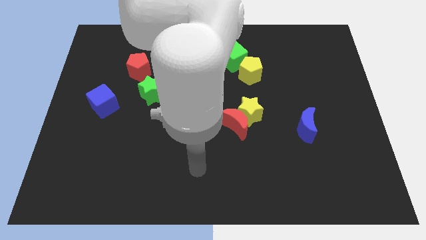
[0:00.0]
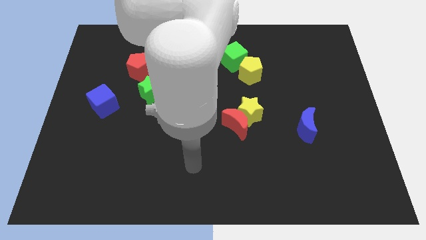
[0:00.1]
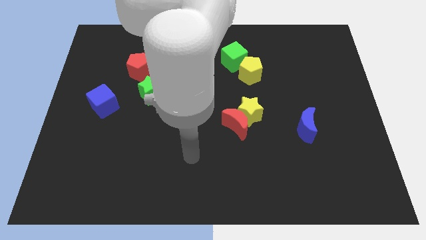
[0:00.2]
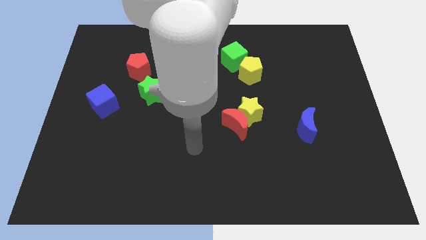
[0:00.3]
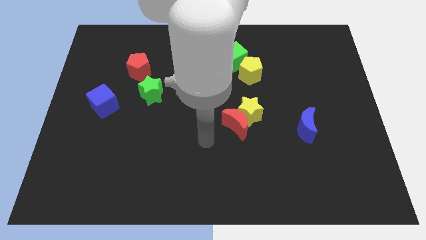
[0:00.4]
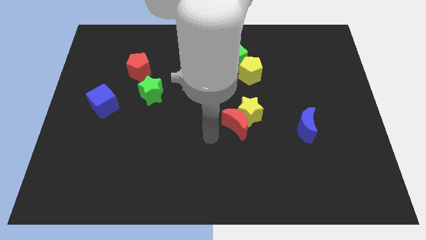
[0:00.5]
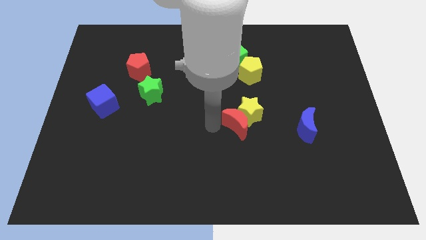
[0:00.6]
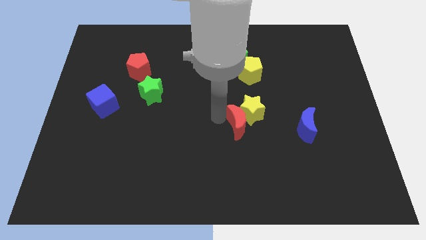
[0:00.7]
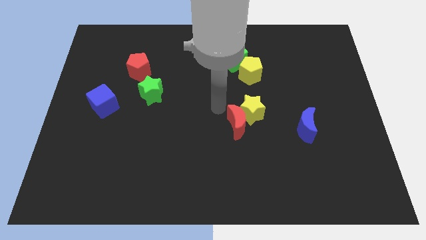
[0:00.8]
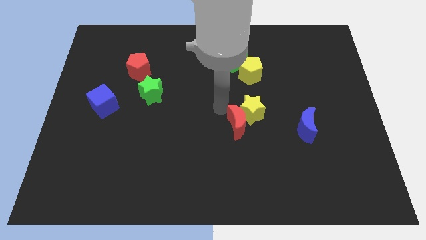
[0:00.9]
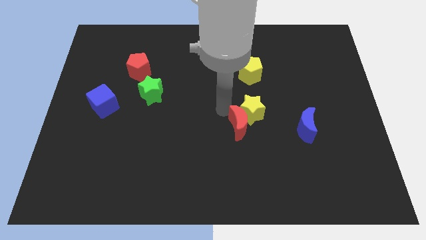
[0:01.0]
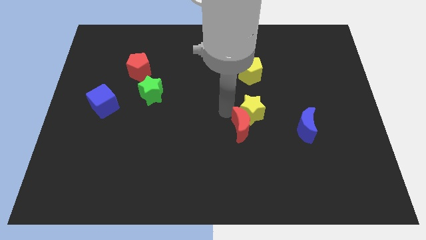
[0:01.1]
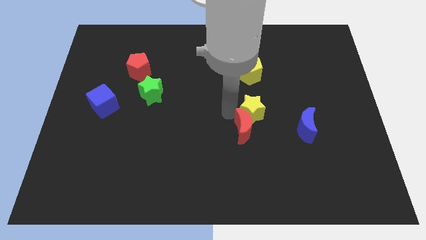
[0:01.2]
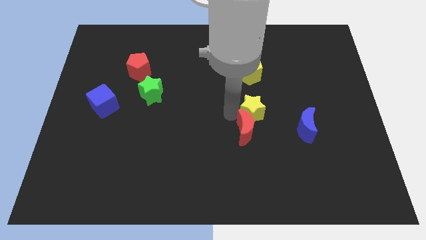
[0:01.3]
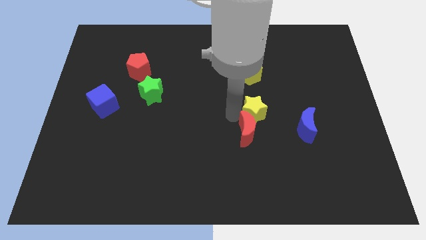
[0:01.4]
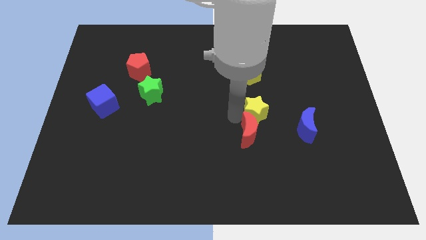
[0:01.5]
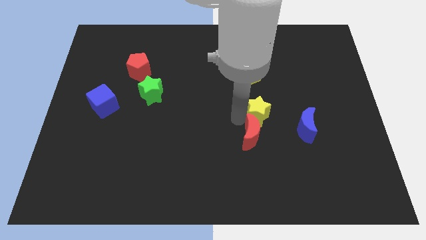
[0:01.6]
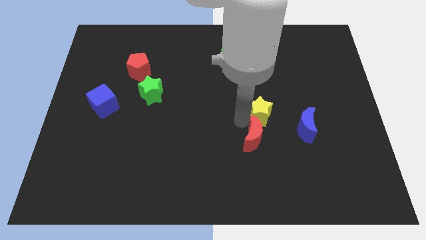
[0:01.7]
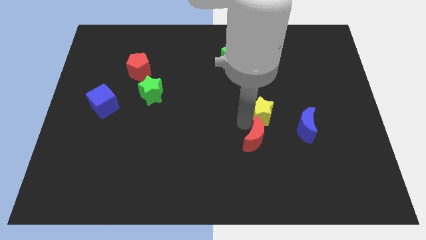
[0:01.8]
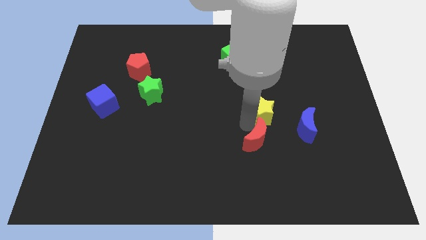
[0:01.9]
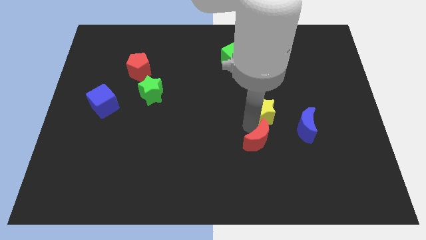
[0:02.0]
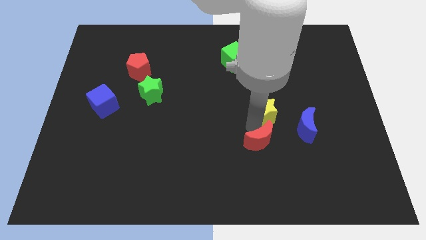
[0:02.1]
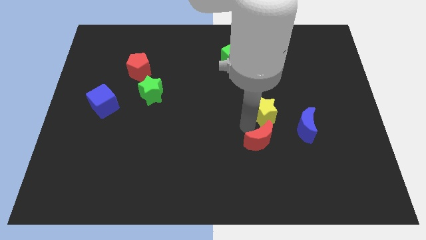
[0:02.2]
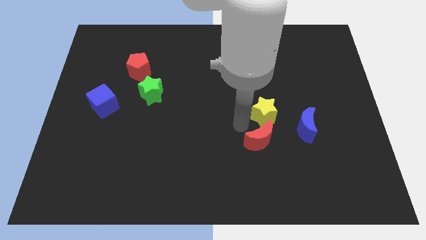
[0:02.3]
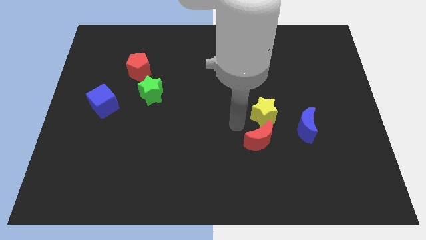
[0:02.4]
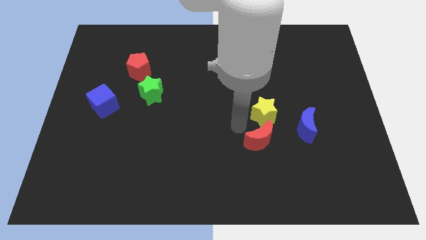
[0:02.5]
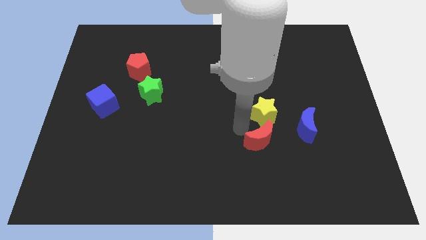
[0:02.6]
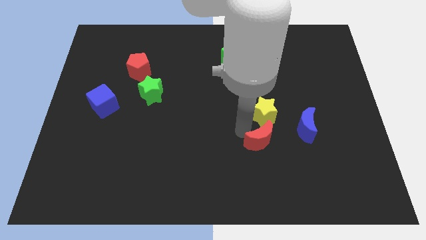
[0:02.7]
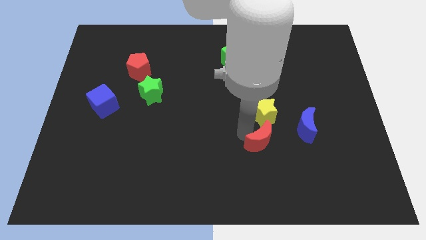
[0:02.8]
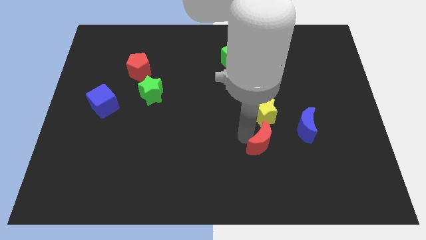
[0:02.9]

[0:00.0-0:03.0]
slide the red moon a little diagonally down and to the right

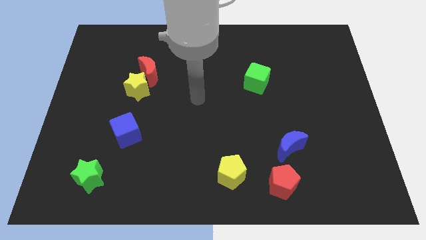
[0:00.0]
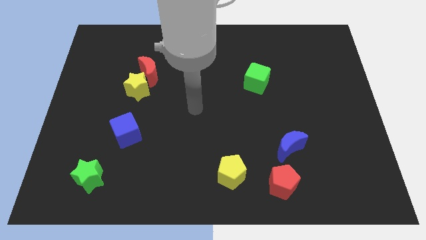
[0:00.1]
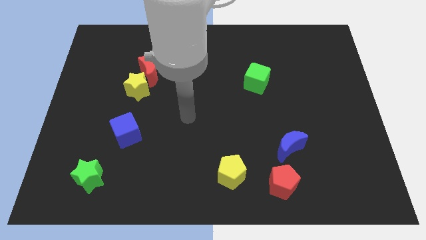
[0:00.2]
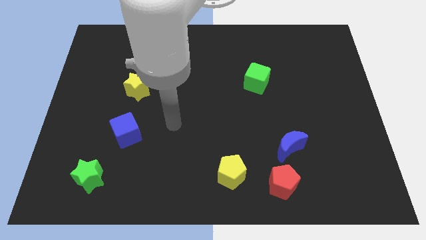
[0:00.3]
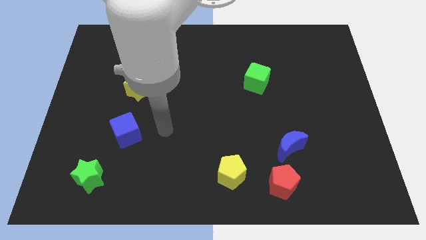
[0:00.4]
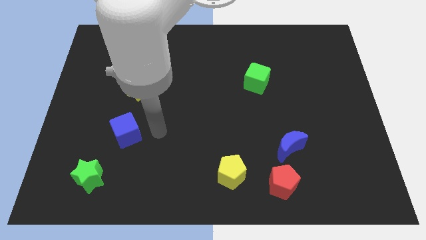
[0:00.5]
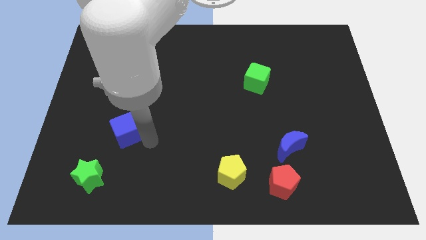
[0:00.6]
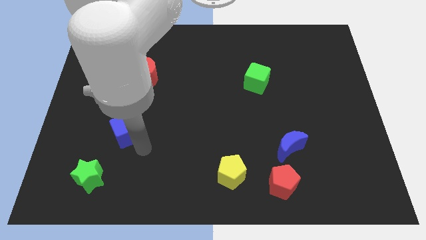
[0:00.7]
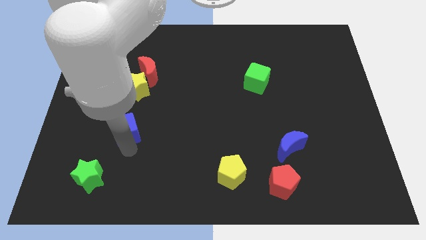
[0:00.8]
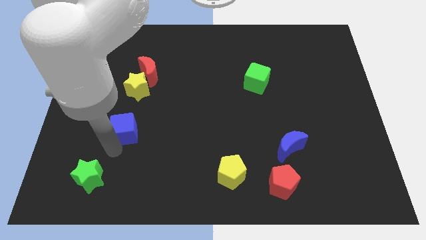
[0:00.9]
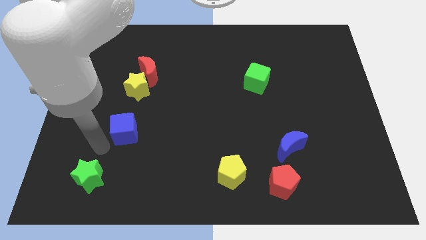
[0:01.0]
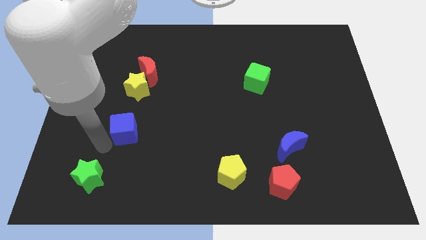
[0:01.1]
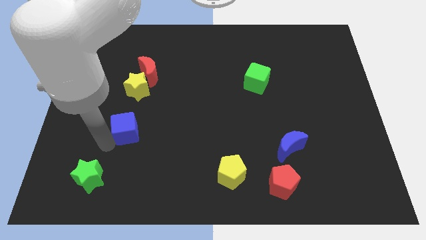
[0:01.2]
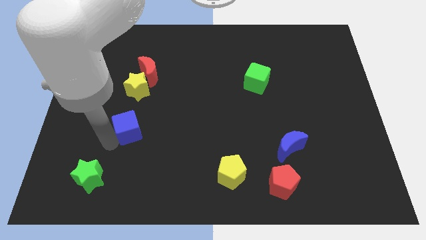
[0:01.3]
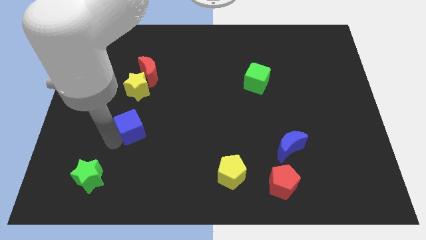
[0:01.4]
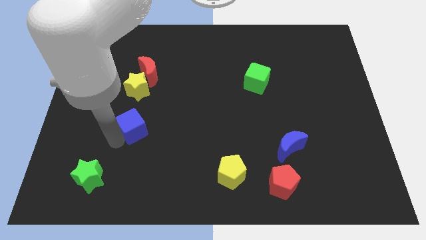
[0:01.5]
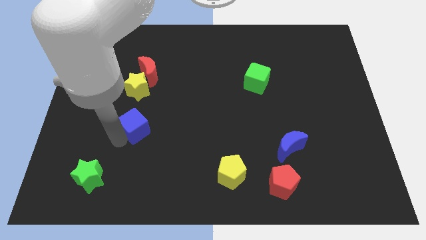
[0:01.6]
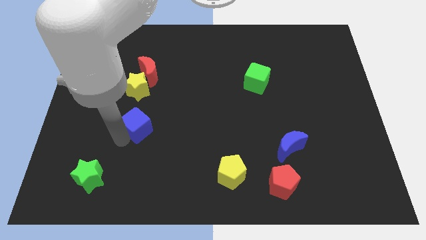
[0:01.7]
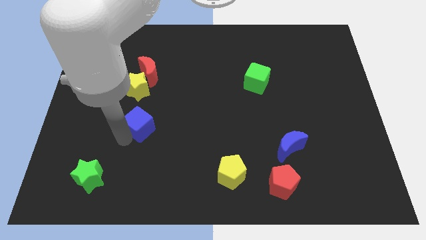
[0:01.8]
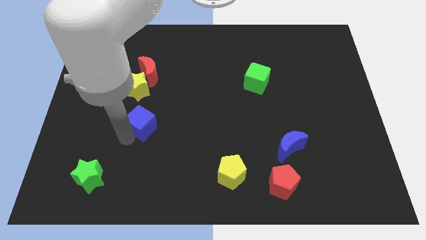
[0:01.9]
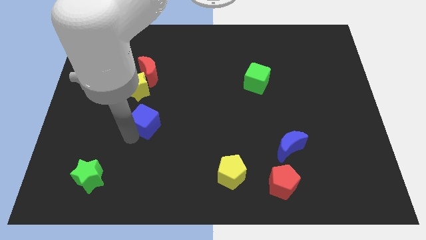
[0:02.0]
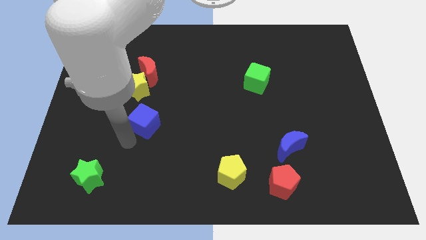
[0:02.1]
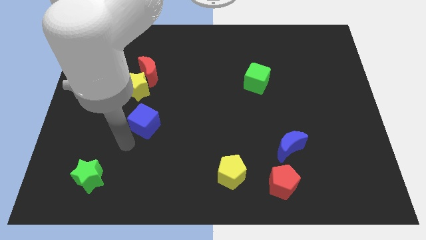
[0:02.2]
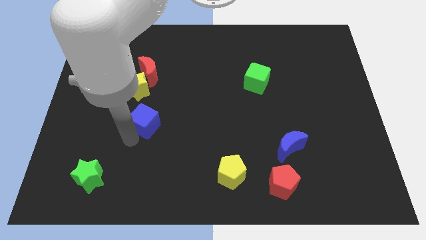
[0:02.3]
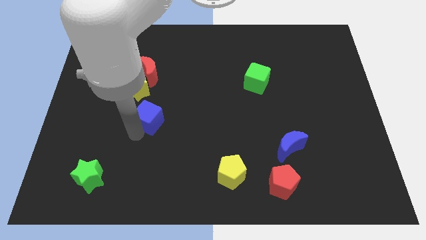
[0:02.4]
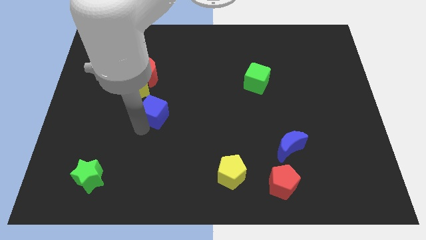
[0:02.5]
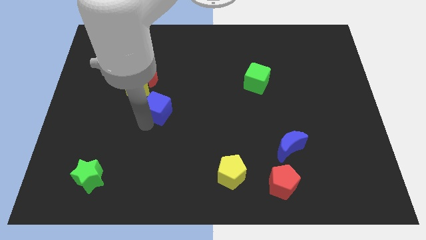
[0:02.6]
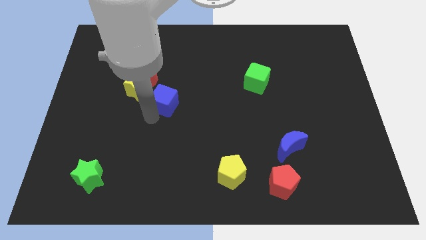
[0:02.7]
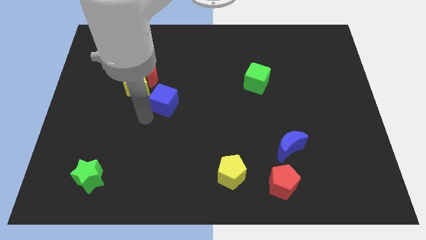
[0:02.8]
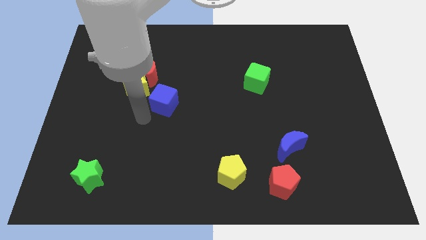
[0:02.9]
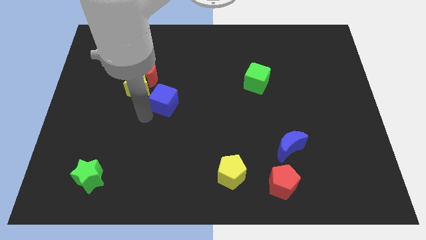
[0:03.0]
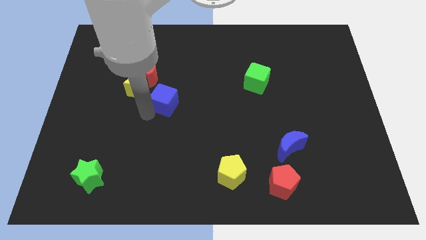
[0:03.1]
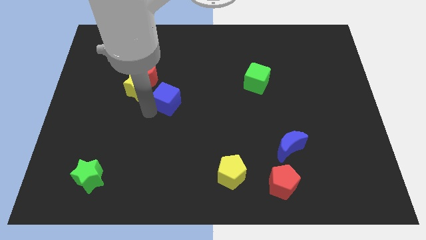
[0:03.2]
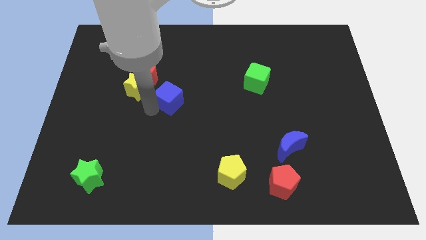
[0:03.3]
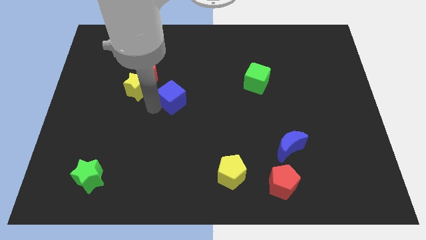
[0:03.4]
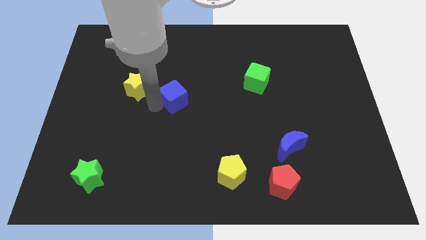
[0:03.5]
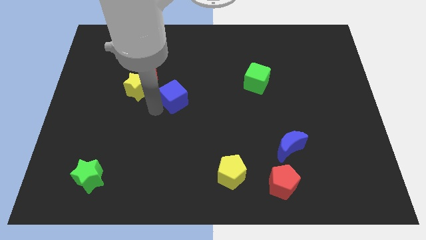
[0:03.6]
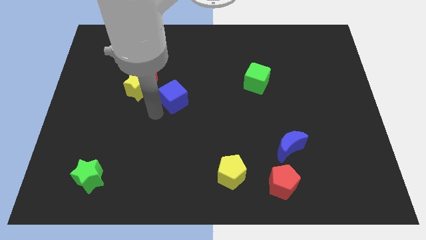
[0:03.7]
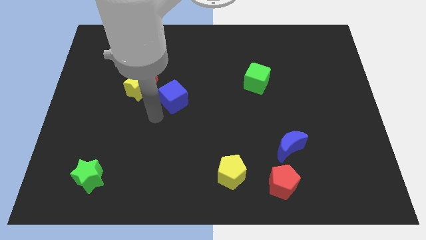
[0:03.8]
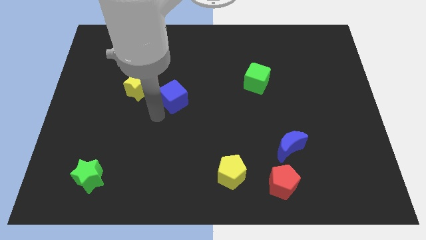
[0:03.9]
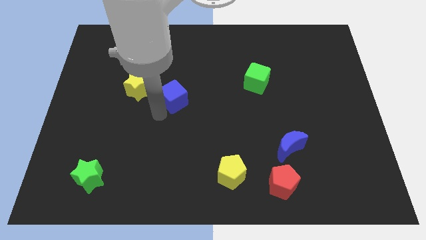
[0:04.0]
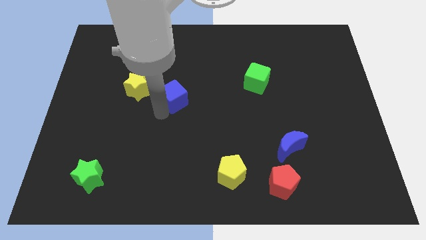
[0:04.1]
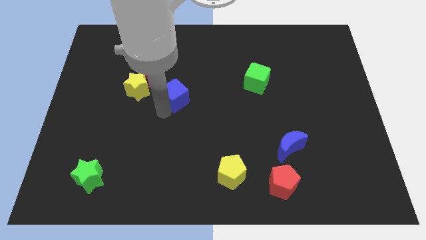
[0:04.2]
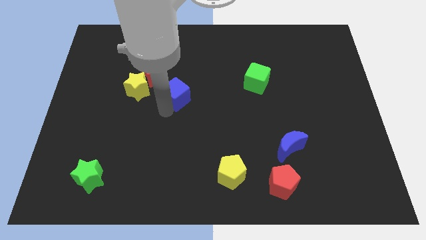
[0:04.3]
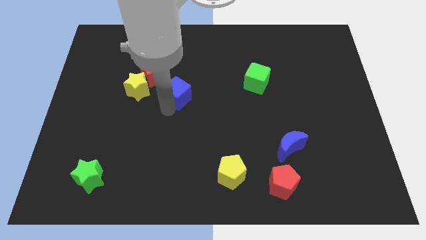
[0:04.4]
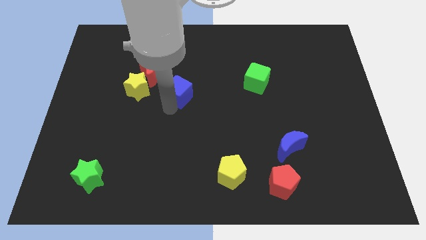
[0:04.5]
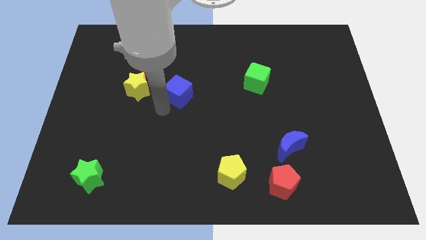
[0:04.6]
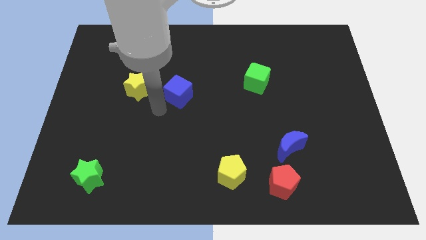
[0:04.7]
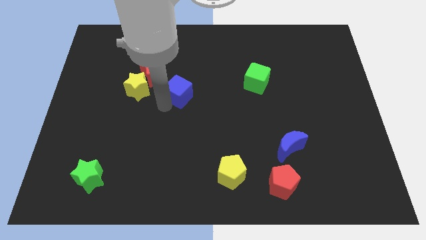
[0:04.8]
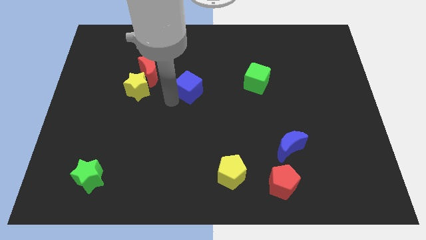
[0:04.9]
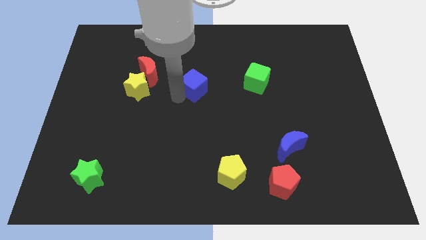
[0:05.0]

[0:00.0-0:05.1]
slide the blue cube diagonally up and right

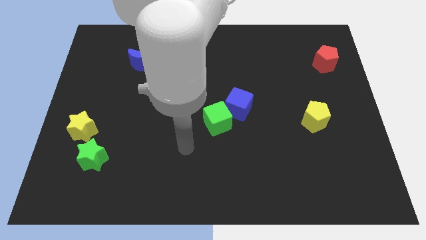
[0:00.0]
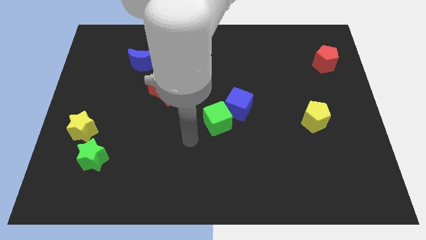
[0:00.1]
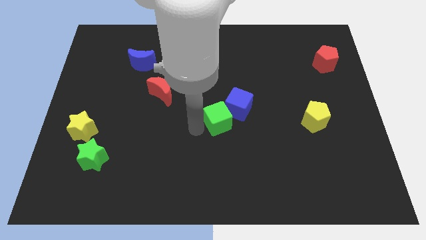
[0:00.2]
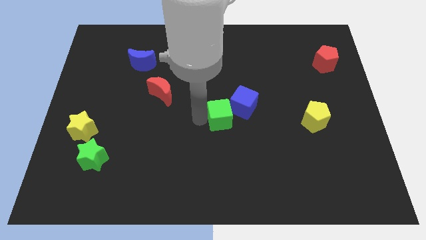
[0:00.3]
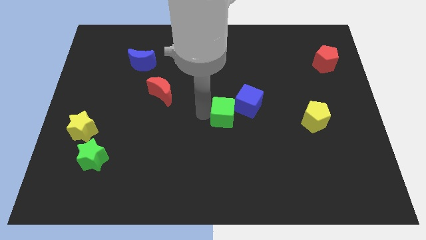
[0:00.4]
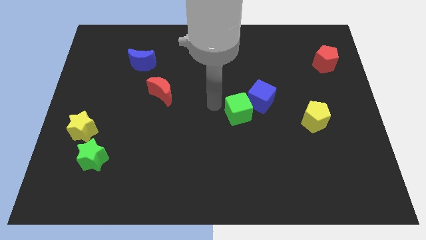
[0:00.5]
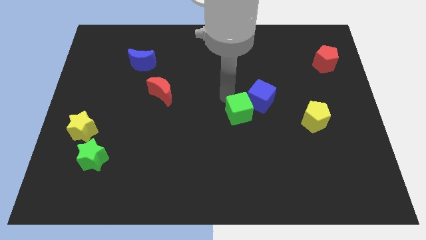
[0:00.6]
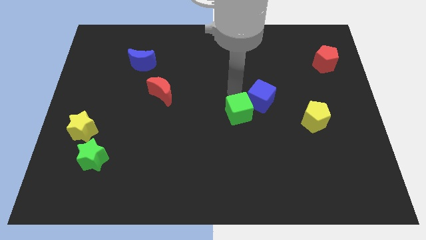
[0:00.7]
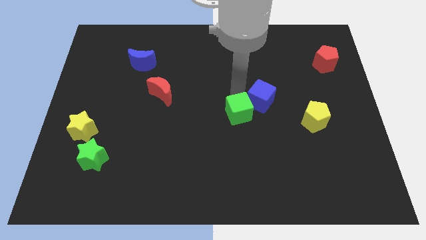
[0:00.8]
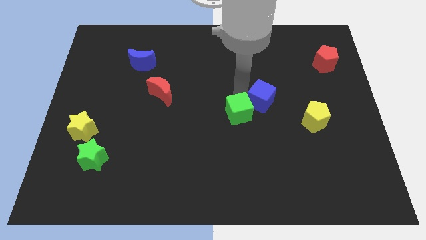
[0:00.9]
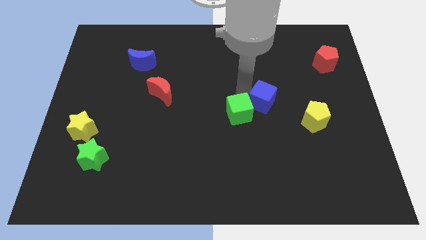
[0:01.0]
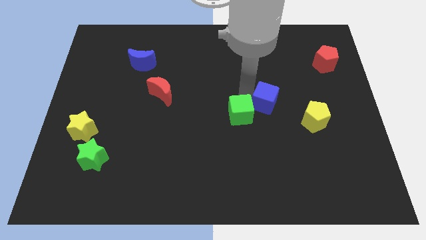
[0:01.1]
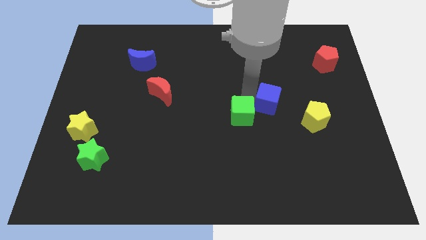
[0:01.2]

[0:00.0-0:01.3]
move the blue cube to the right a little
